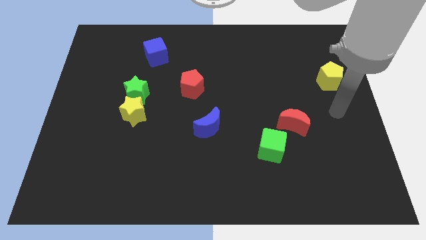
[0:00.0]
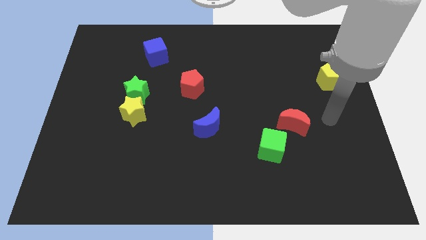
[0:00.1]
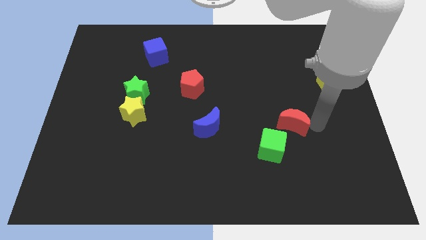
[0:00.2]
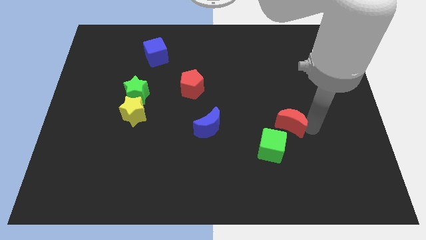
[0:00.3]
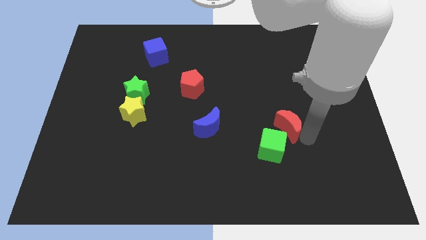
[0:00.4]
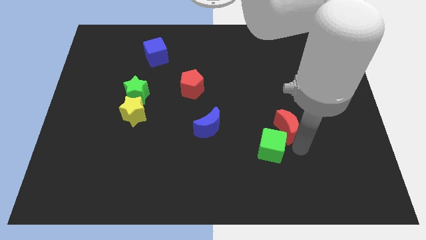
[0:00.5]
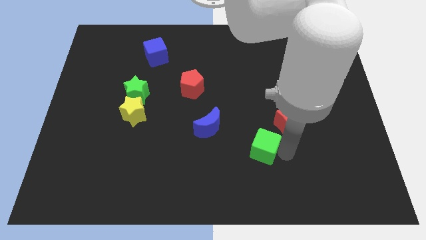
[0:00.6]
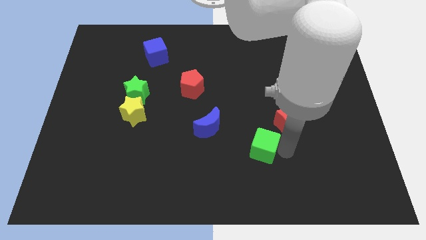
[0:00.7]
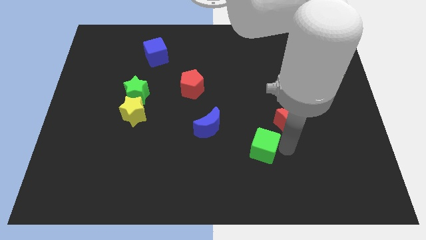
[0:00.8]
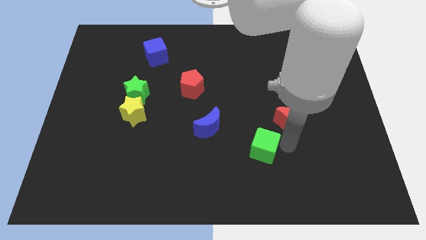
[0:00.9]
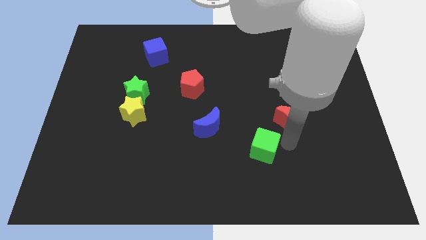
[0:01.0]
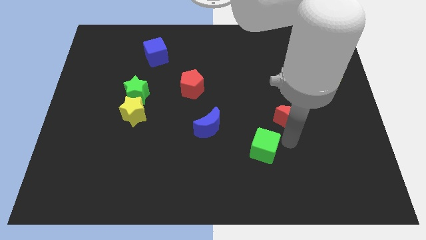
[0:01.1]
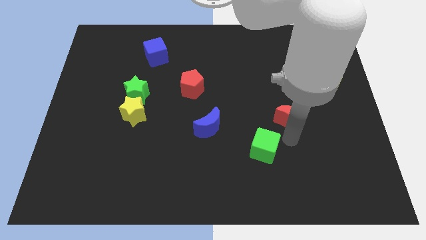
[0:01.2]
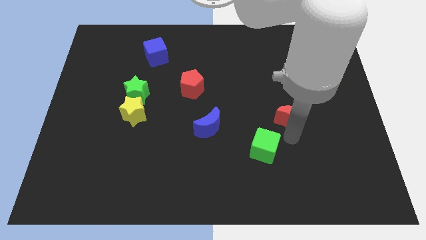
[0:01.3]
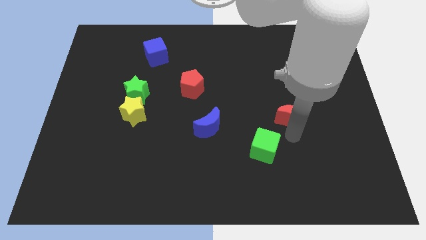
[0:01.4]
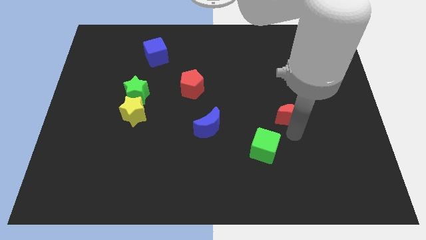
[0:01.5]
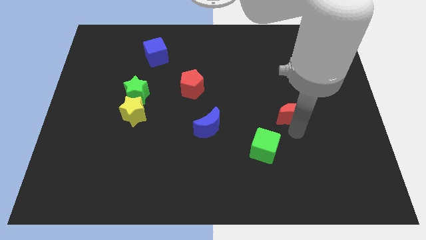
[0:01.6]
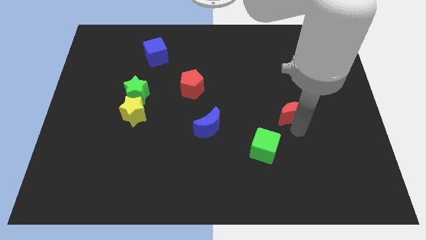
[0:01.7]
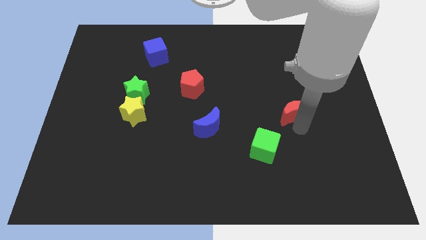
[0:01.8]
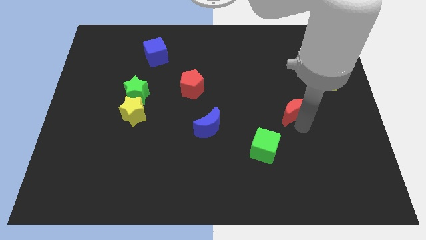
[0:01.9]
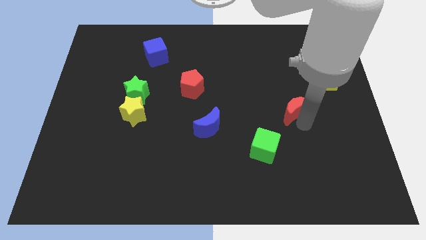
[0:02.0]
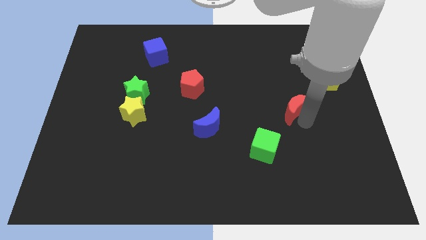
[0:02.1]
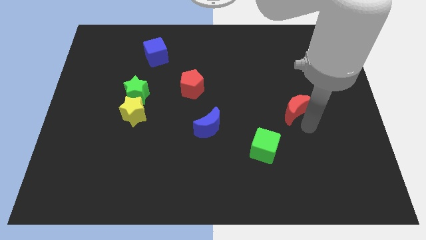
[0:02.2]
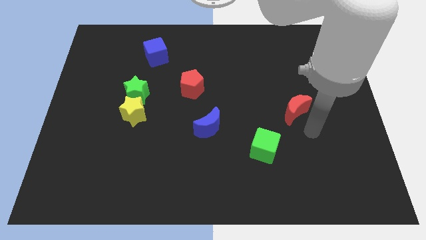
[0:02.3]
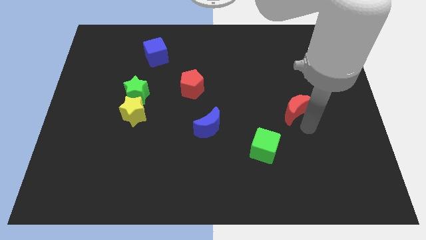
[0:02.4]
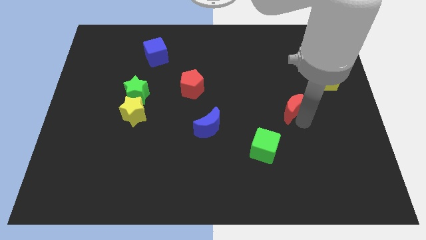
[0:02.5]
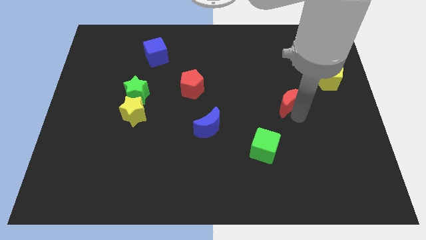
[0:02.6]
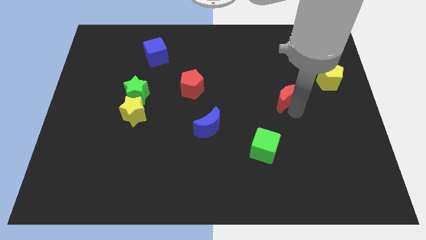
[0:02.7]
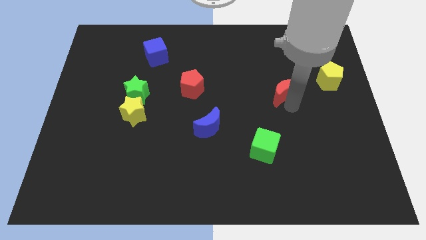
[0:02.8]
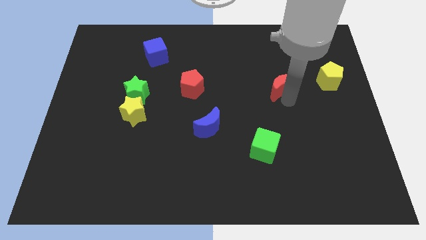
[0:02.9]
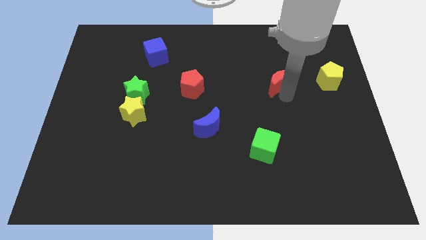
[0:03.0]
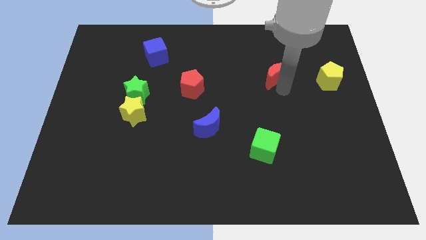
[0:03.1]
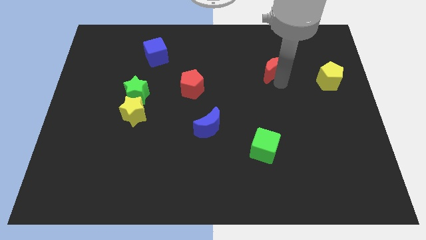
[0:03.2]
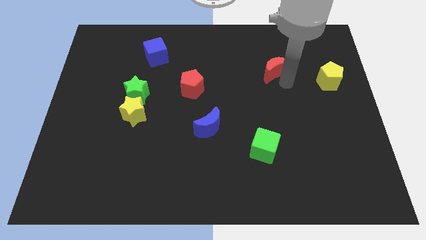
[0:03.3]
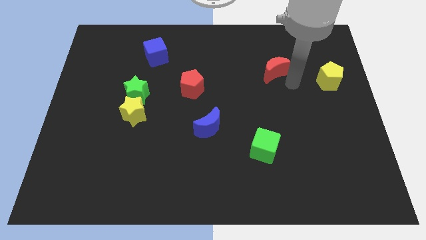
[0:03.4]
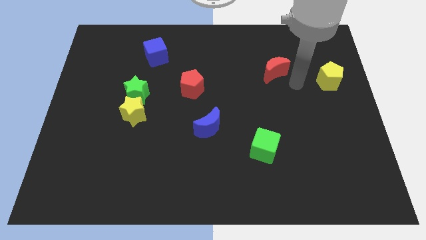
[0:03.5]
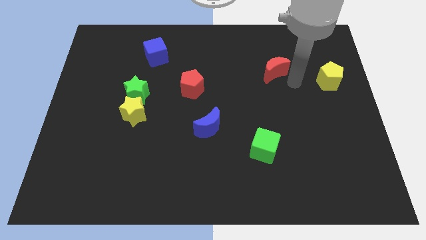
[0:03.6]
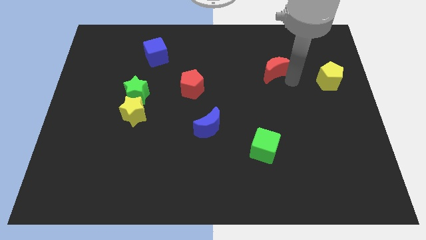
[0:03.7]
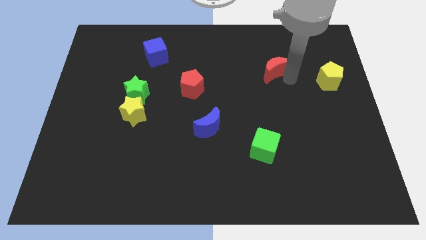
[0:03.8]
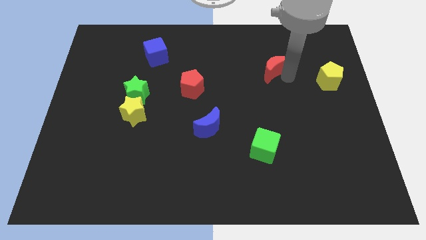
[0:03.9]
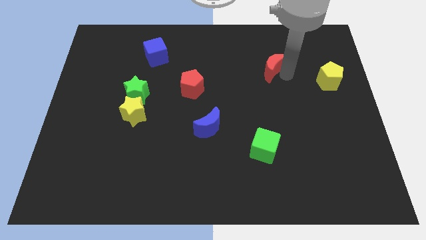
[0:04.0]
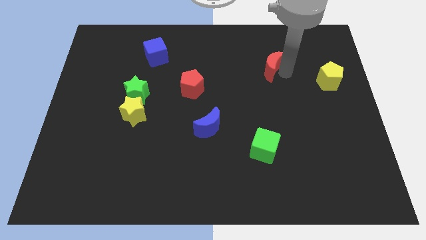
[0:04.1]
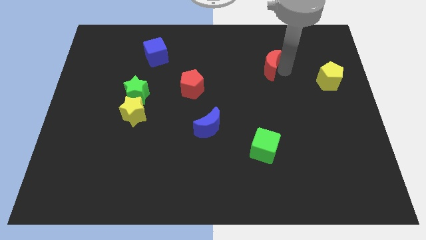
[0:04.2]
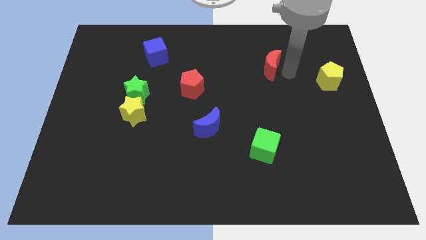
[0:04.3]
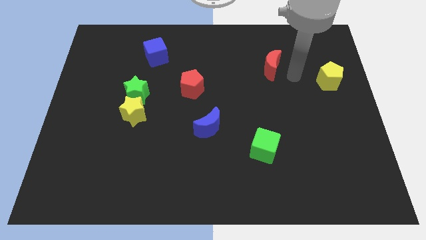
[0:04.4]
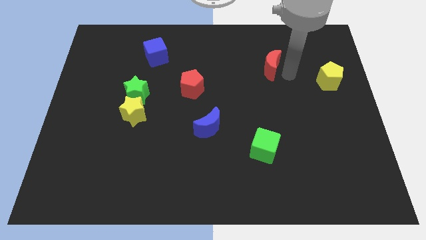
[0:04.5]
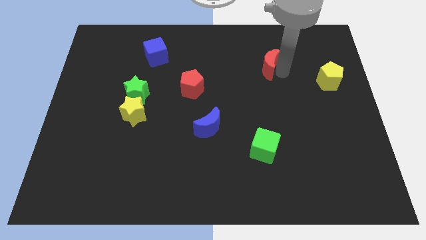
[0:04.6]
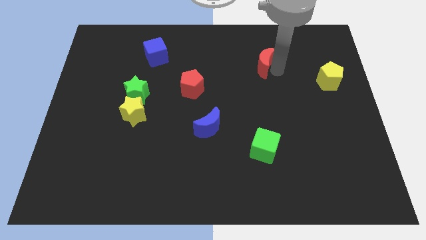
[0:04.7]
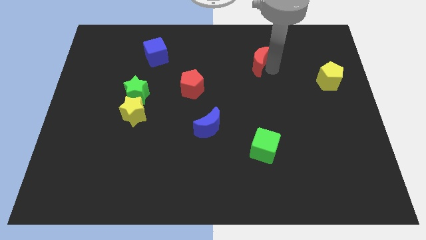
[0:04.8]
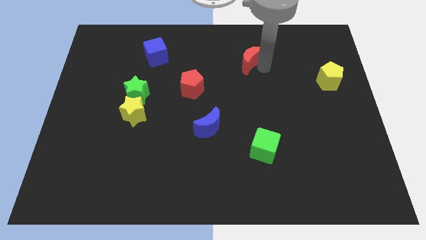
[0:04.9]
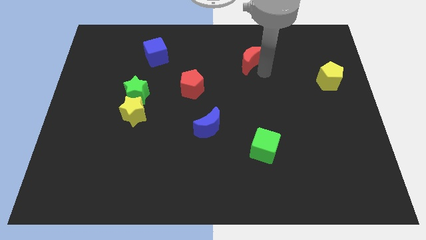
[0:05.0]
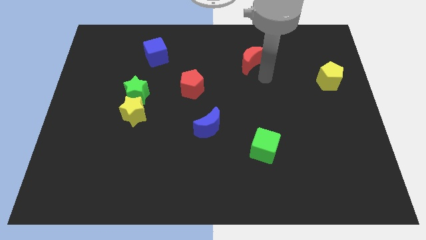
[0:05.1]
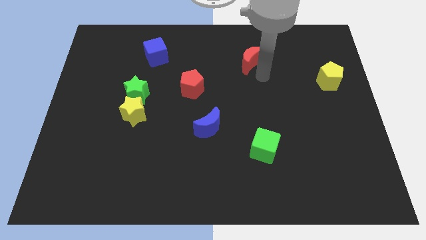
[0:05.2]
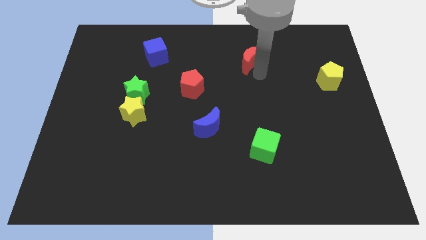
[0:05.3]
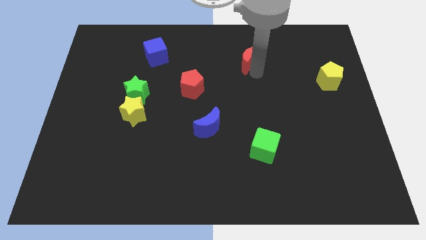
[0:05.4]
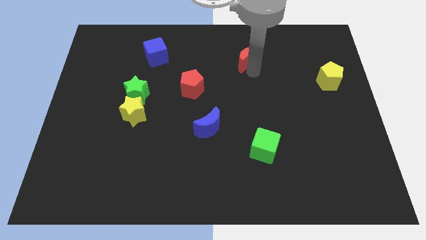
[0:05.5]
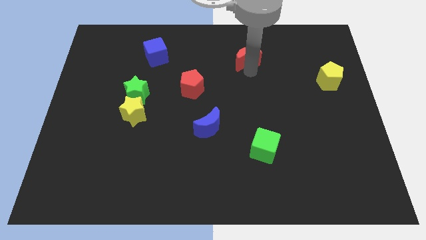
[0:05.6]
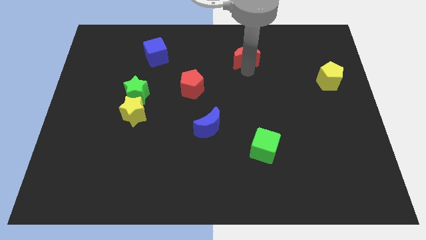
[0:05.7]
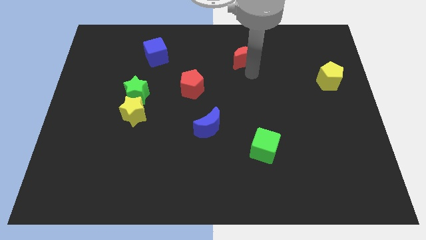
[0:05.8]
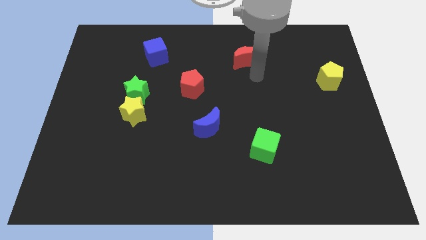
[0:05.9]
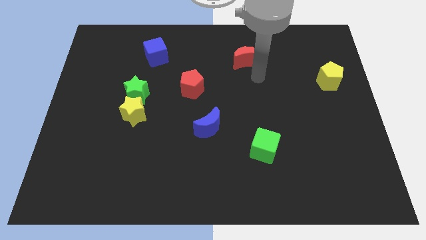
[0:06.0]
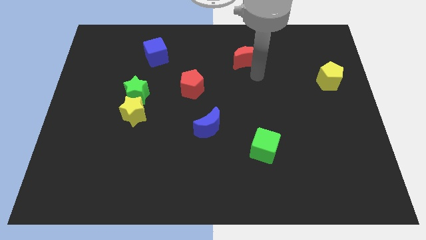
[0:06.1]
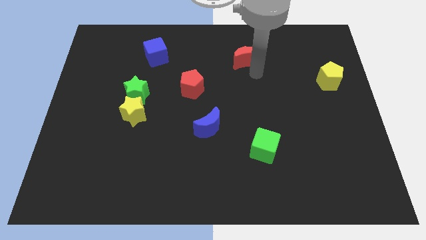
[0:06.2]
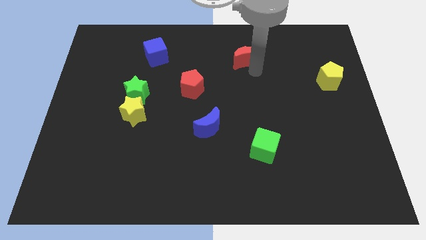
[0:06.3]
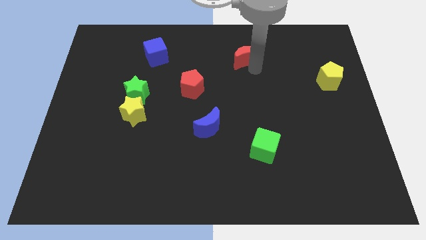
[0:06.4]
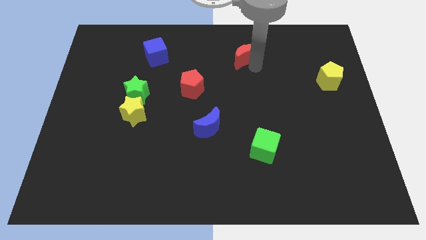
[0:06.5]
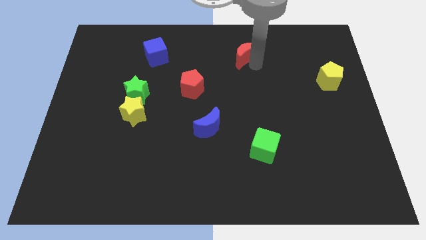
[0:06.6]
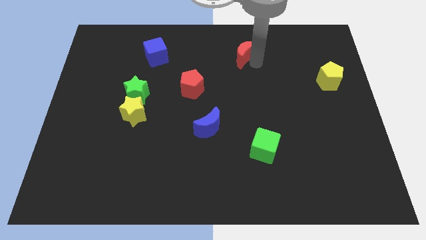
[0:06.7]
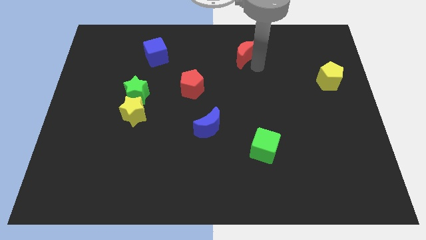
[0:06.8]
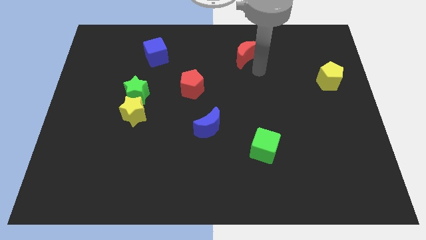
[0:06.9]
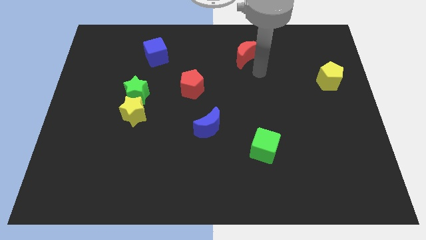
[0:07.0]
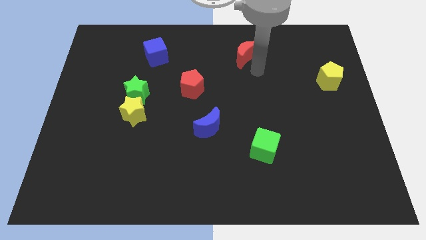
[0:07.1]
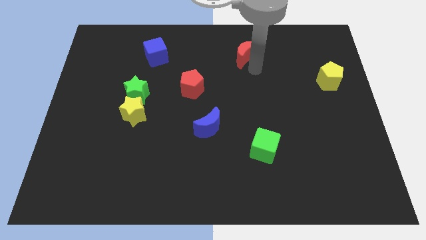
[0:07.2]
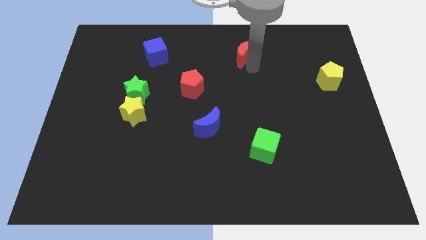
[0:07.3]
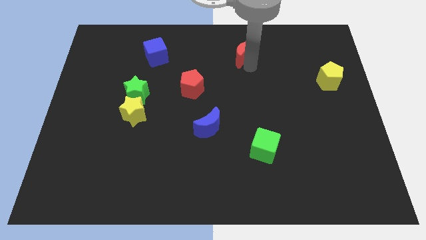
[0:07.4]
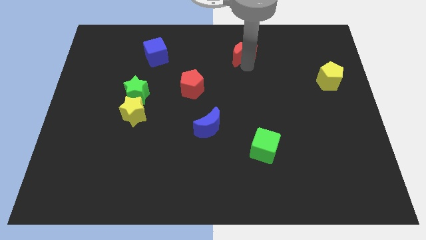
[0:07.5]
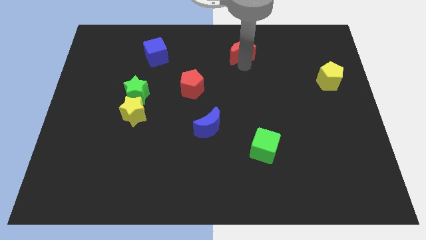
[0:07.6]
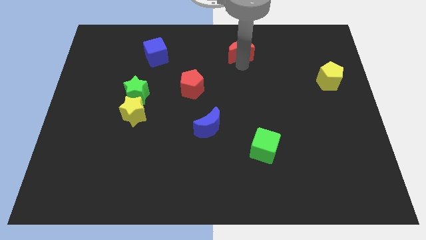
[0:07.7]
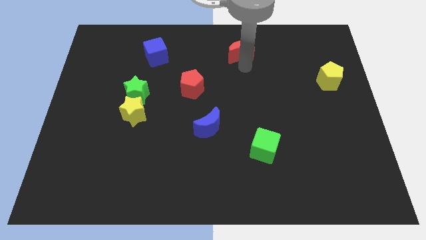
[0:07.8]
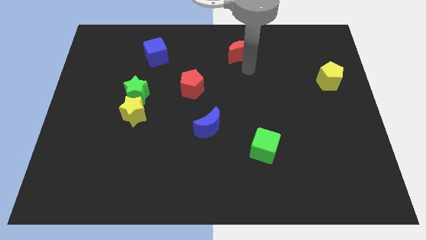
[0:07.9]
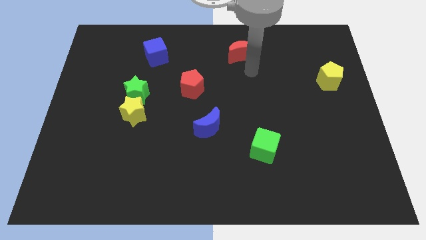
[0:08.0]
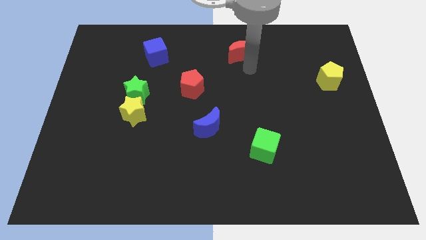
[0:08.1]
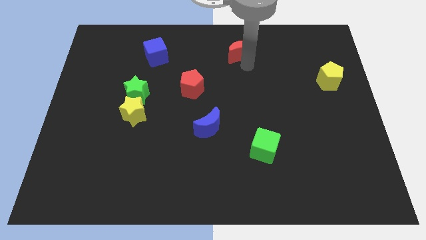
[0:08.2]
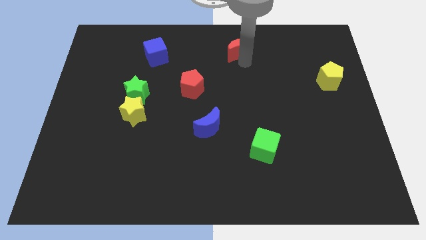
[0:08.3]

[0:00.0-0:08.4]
slide the red moon to the top
